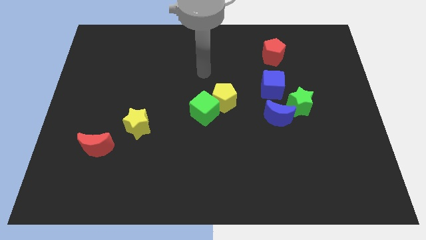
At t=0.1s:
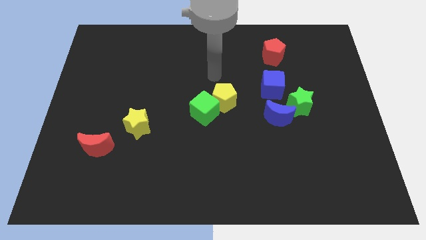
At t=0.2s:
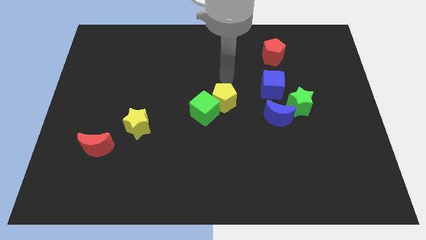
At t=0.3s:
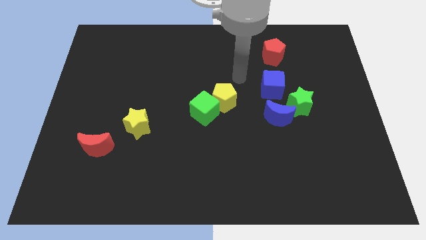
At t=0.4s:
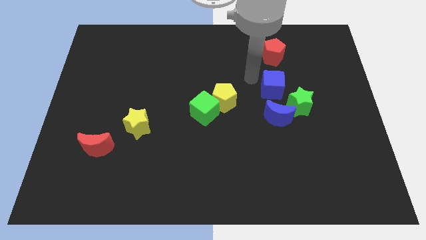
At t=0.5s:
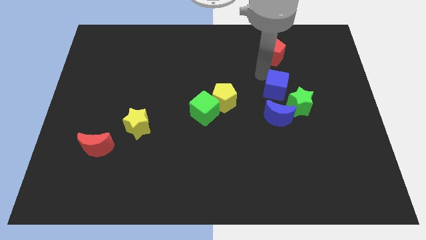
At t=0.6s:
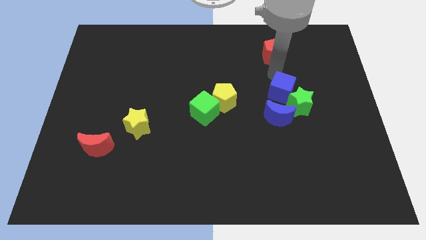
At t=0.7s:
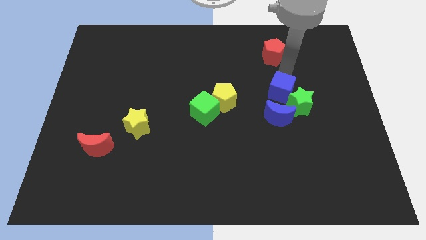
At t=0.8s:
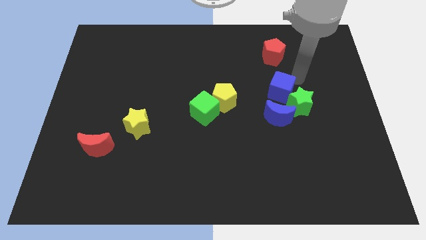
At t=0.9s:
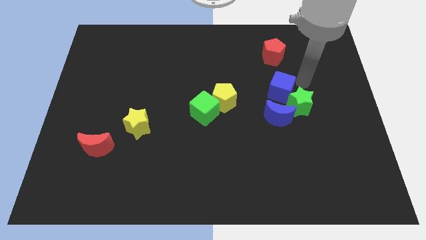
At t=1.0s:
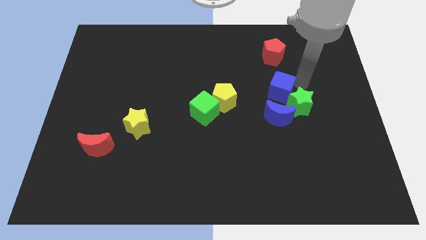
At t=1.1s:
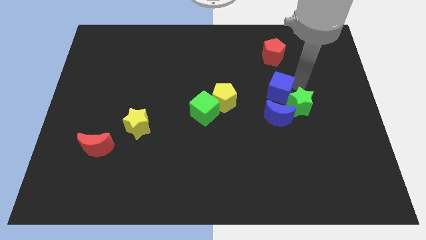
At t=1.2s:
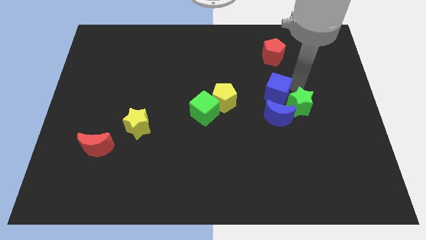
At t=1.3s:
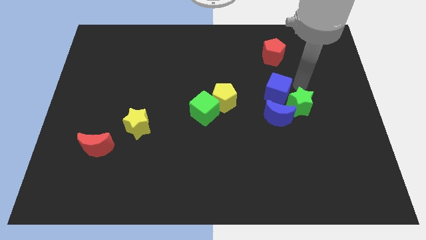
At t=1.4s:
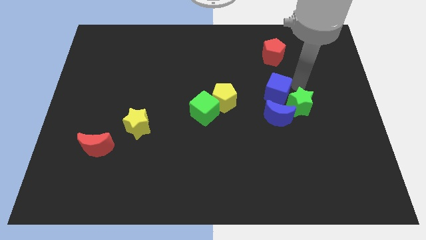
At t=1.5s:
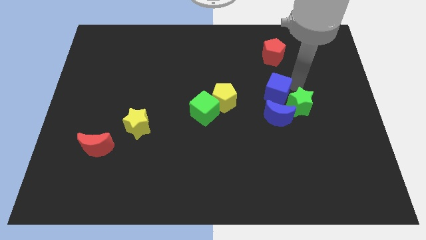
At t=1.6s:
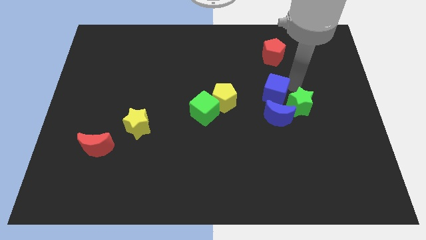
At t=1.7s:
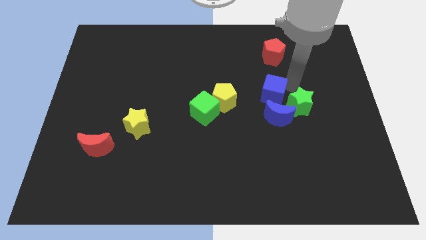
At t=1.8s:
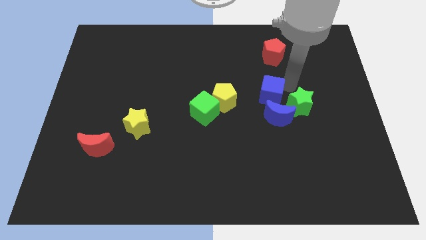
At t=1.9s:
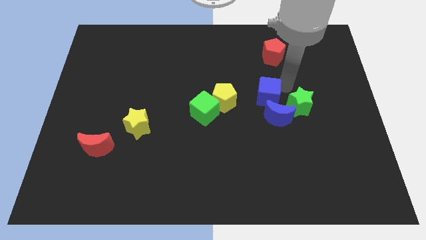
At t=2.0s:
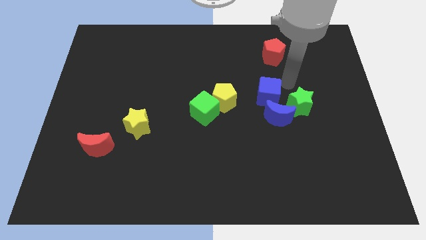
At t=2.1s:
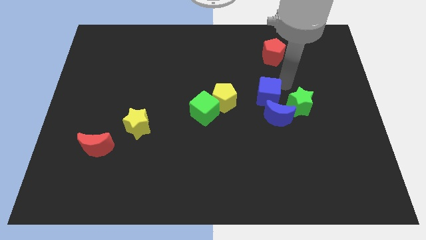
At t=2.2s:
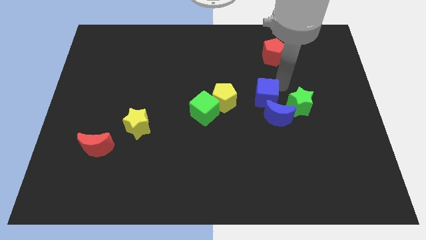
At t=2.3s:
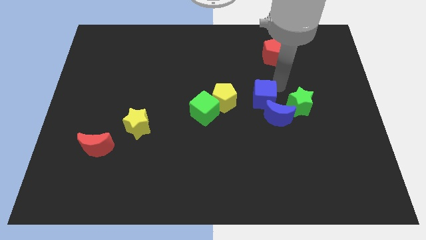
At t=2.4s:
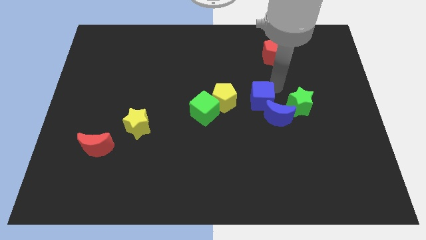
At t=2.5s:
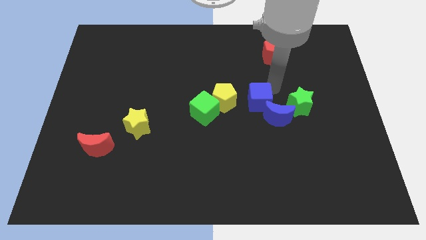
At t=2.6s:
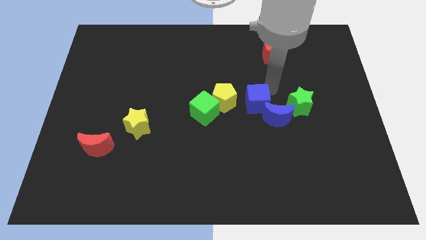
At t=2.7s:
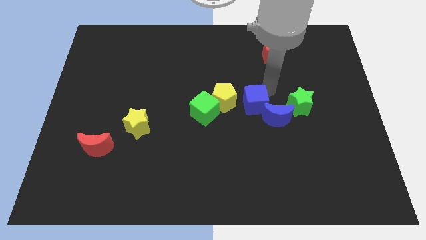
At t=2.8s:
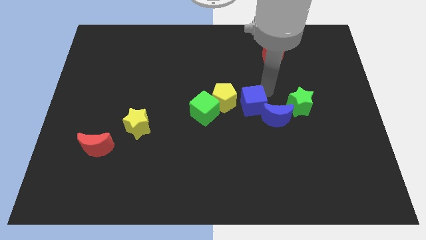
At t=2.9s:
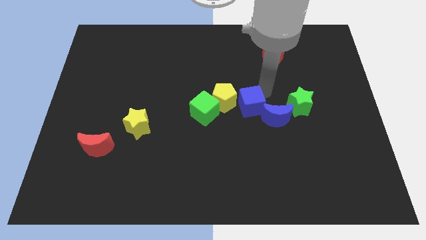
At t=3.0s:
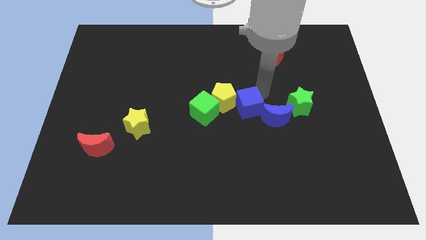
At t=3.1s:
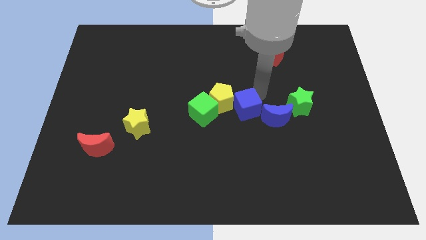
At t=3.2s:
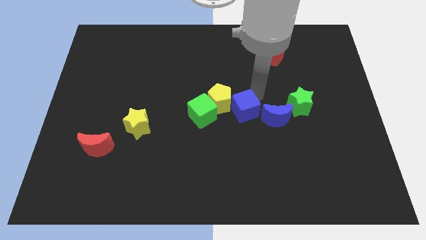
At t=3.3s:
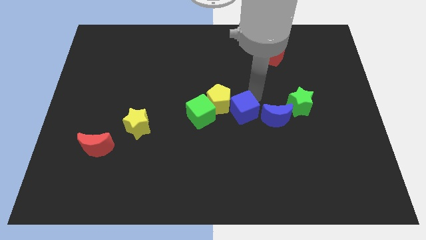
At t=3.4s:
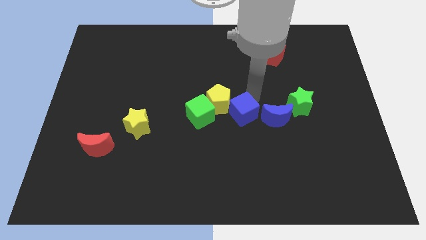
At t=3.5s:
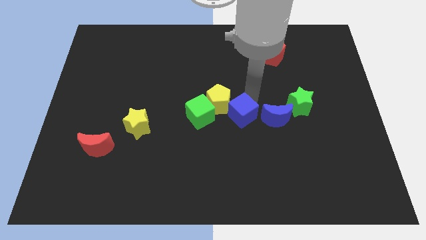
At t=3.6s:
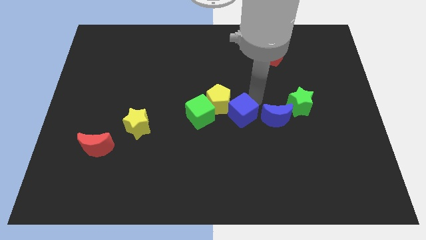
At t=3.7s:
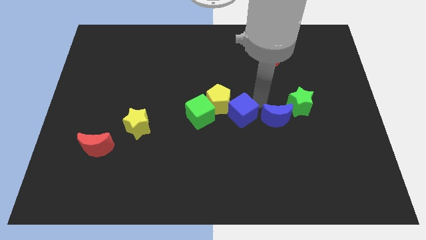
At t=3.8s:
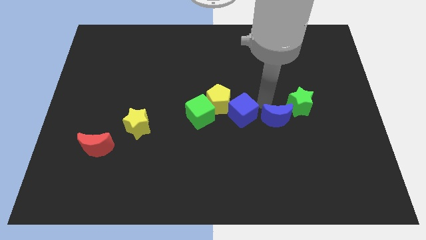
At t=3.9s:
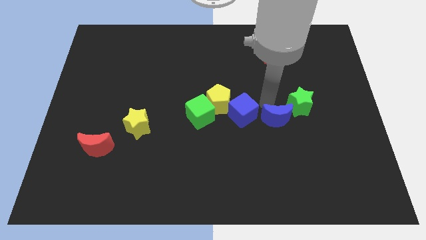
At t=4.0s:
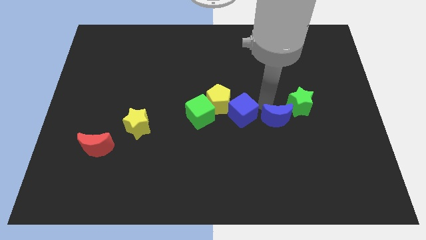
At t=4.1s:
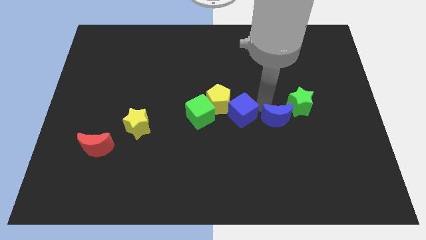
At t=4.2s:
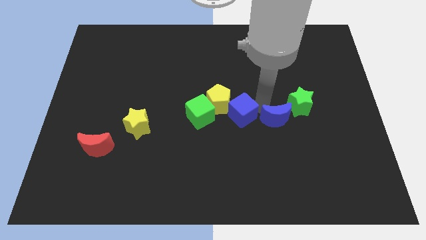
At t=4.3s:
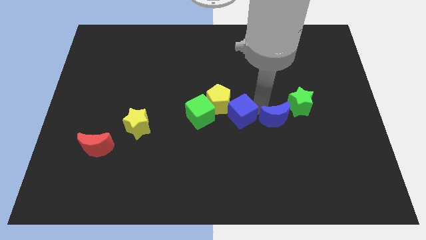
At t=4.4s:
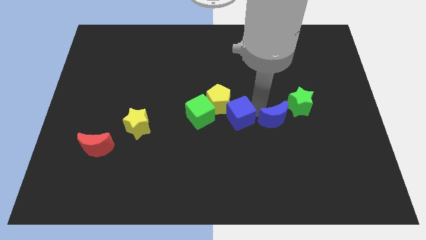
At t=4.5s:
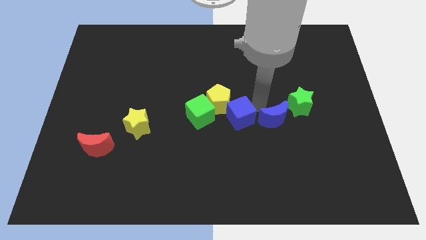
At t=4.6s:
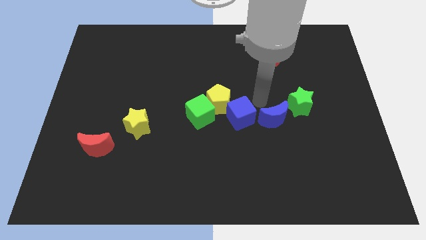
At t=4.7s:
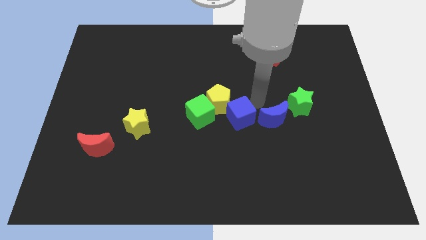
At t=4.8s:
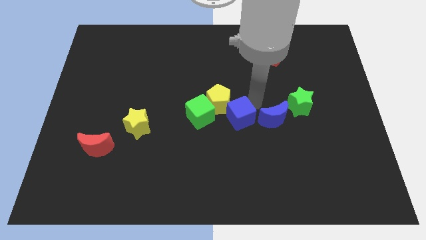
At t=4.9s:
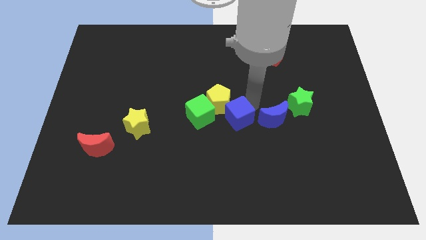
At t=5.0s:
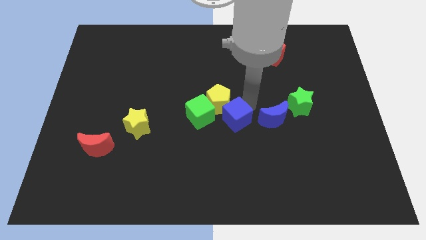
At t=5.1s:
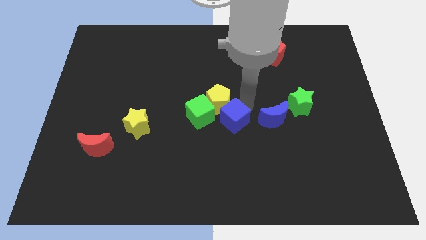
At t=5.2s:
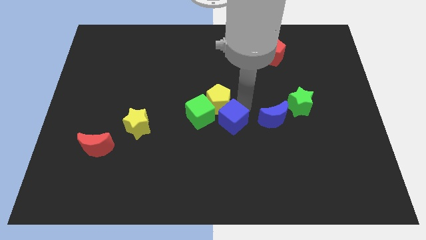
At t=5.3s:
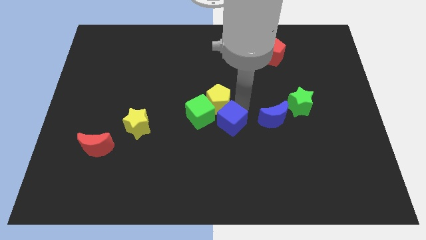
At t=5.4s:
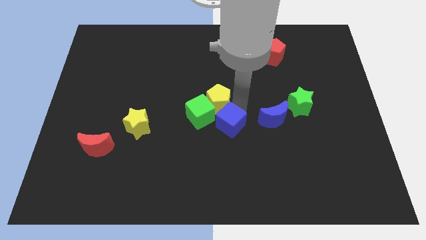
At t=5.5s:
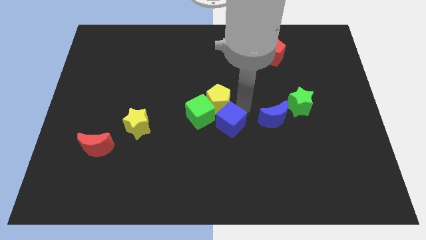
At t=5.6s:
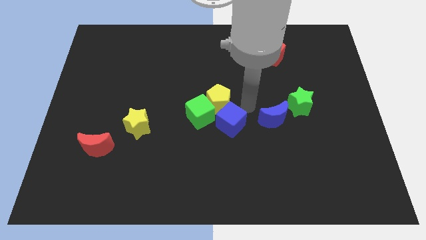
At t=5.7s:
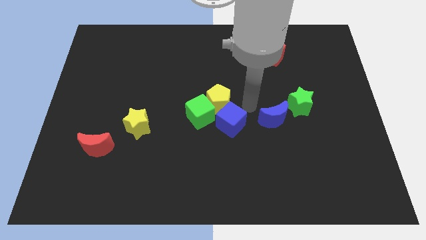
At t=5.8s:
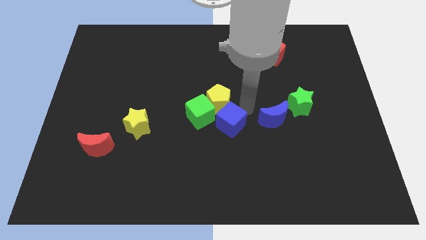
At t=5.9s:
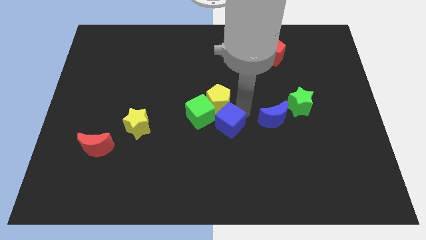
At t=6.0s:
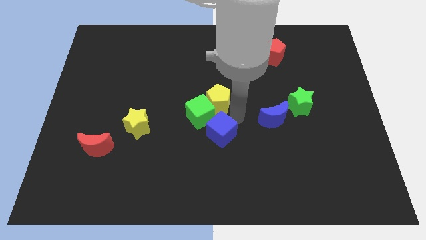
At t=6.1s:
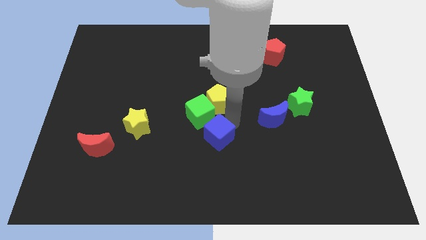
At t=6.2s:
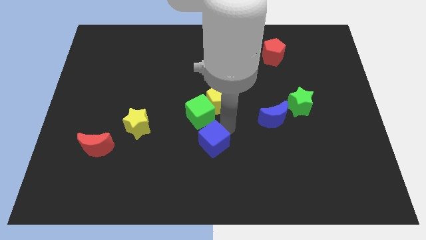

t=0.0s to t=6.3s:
push the blue cube down and then to the left

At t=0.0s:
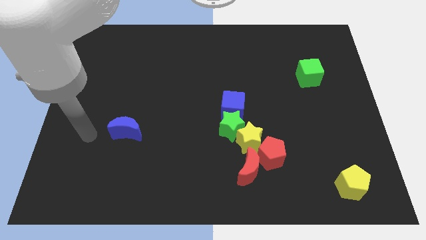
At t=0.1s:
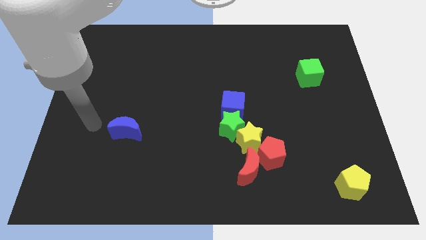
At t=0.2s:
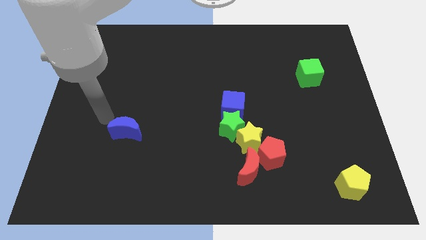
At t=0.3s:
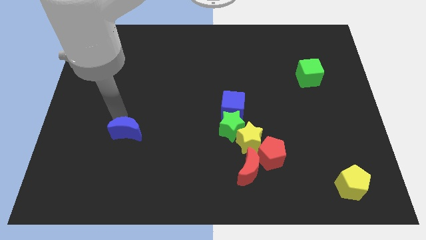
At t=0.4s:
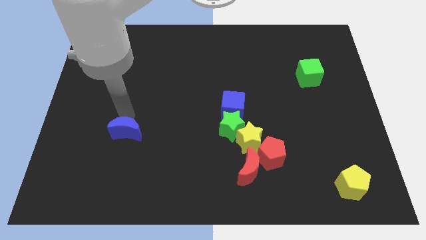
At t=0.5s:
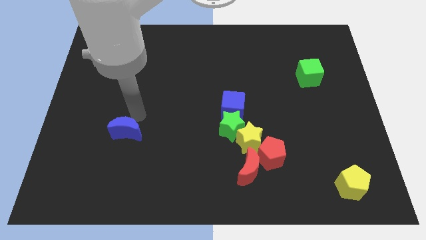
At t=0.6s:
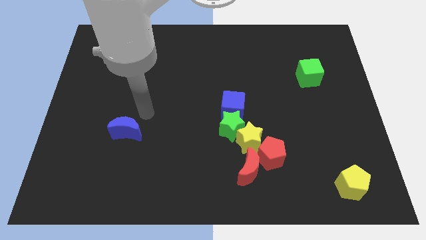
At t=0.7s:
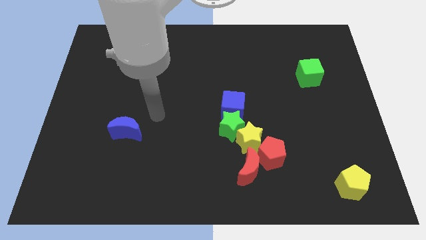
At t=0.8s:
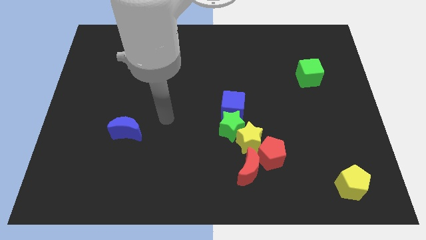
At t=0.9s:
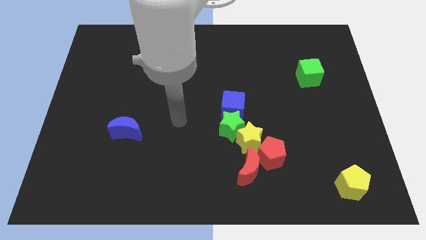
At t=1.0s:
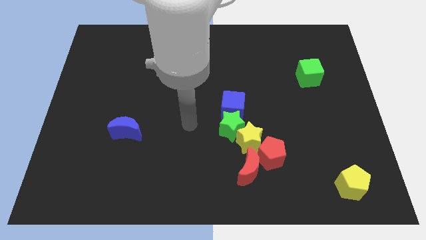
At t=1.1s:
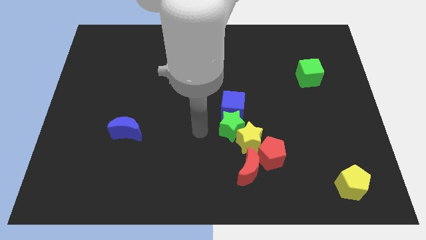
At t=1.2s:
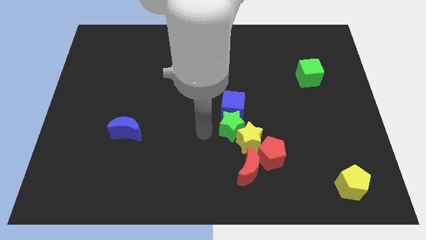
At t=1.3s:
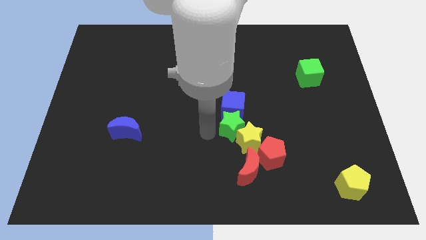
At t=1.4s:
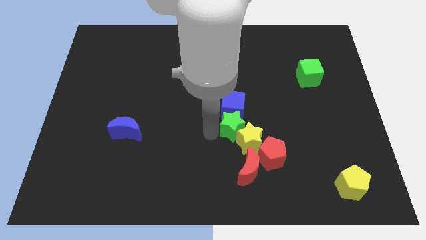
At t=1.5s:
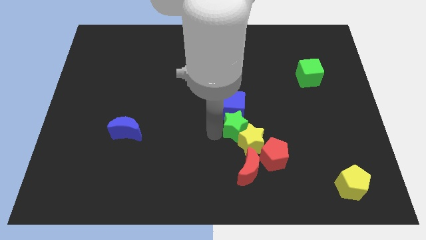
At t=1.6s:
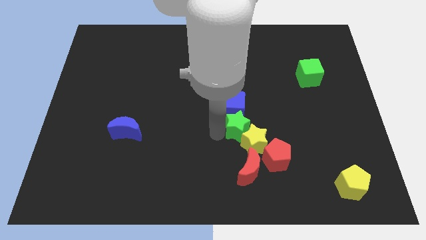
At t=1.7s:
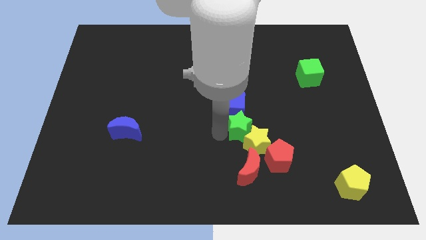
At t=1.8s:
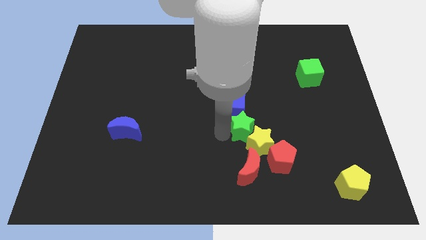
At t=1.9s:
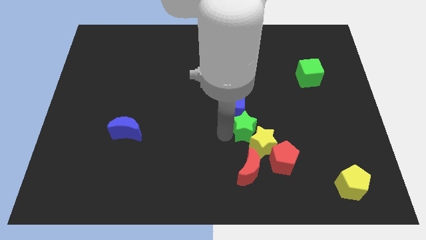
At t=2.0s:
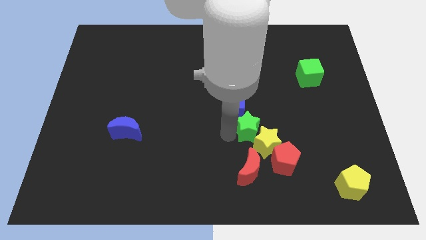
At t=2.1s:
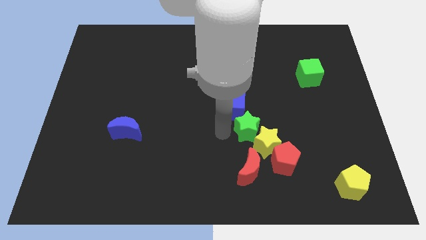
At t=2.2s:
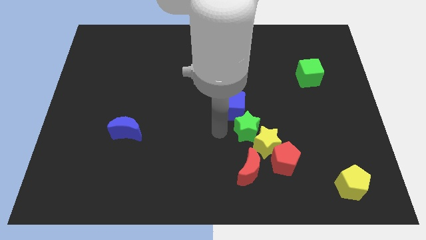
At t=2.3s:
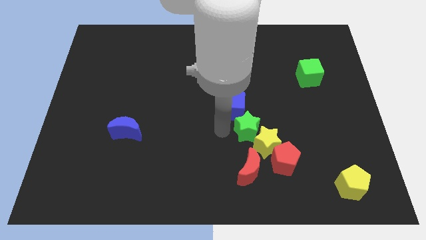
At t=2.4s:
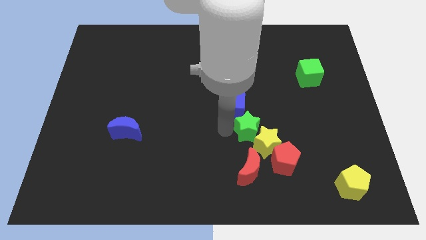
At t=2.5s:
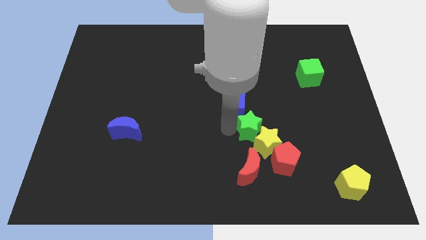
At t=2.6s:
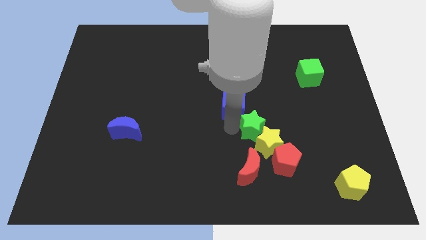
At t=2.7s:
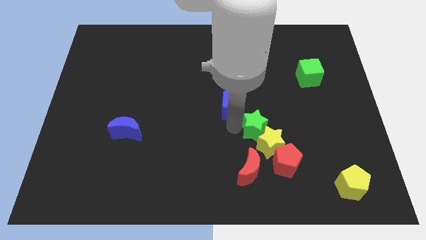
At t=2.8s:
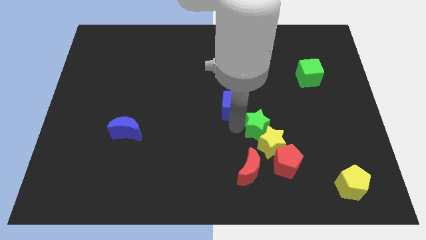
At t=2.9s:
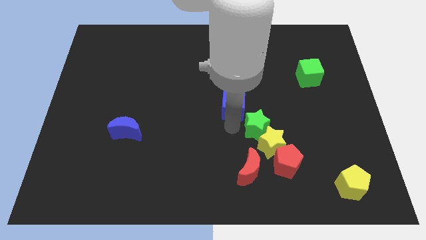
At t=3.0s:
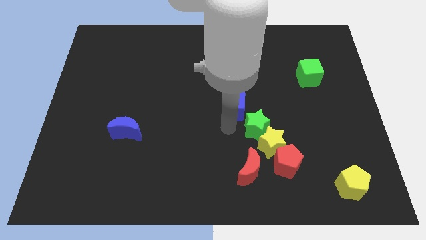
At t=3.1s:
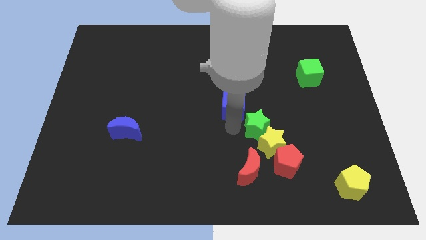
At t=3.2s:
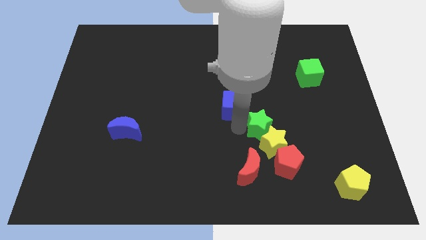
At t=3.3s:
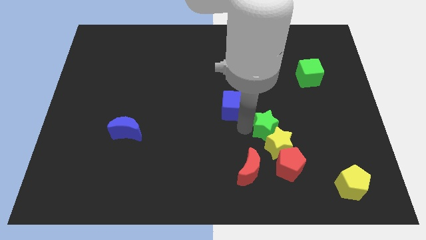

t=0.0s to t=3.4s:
slightly move the green star to the right
